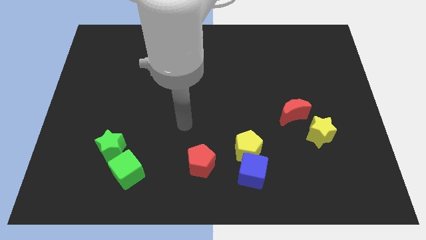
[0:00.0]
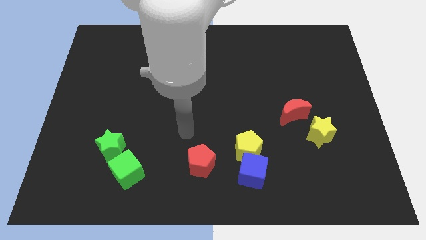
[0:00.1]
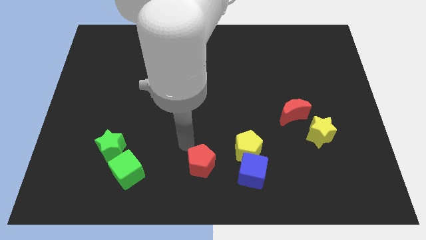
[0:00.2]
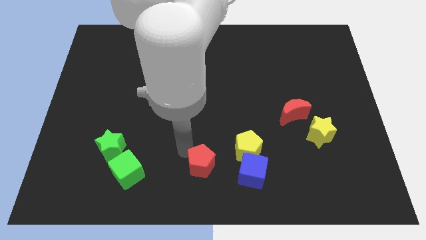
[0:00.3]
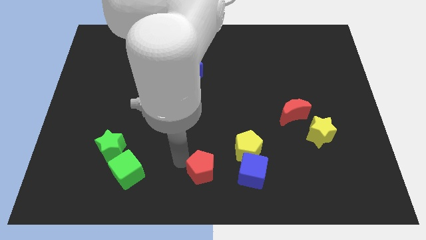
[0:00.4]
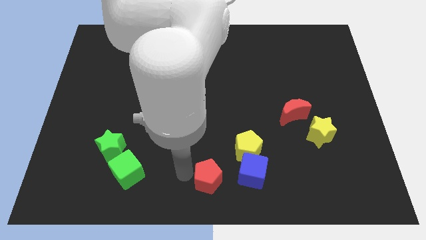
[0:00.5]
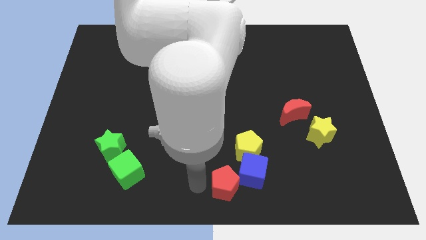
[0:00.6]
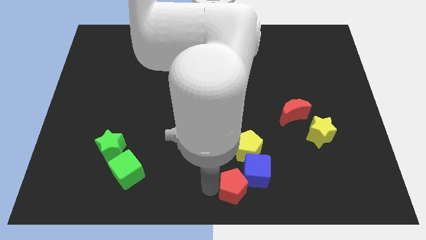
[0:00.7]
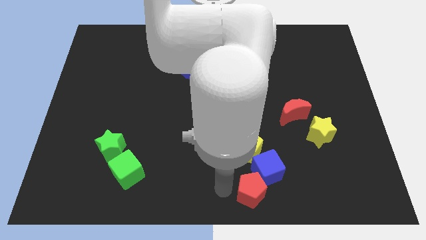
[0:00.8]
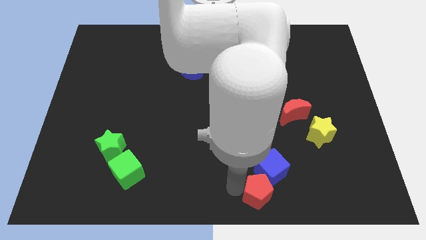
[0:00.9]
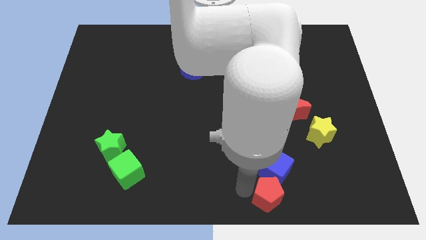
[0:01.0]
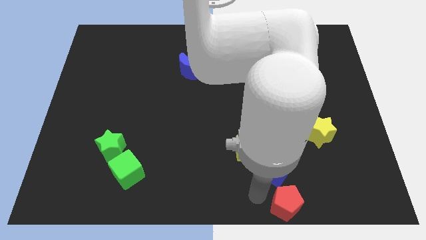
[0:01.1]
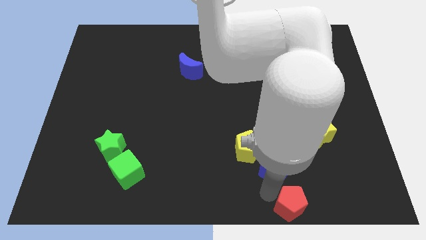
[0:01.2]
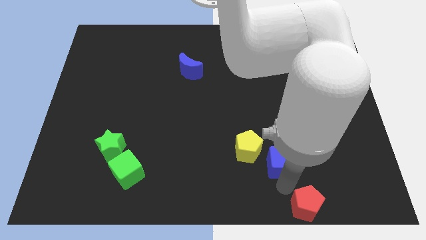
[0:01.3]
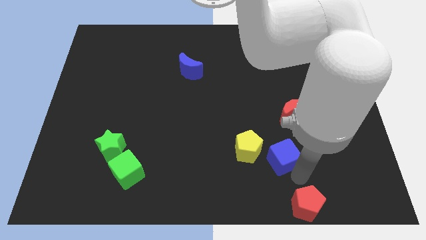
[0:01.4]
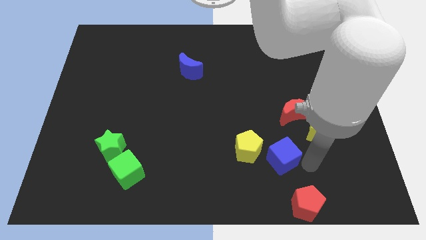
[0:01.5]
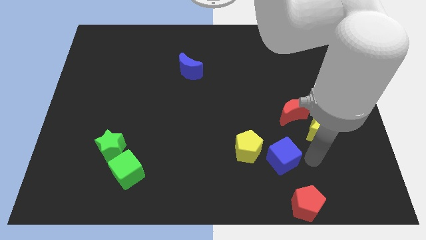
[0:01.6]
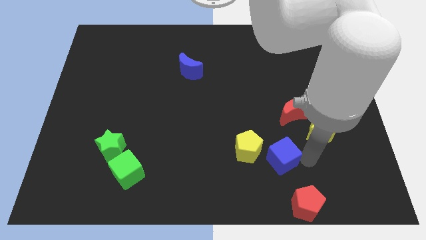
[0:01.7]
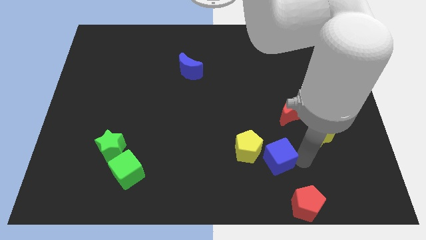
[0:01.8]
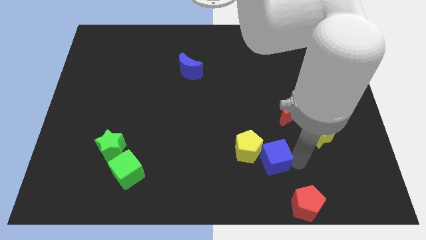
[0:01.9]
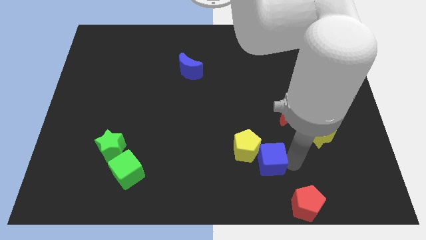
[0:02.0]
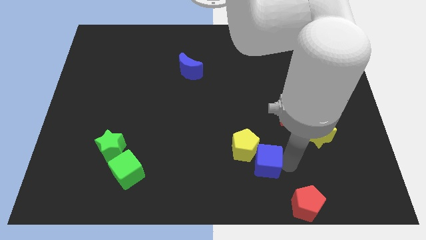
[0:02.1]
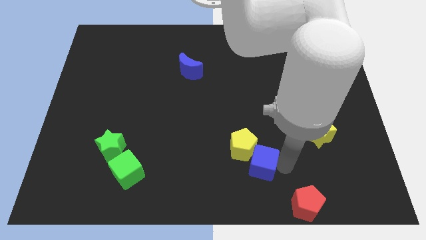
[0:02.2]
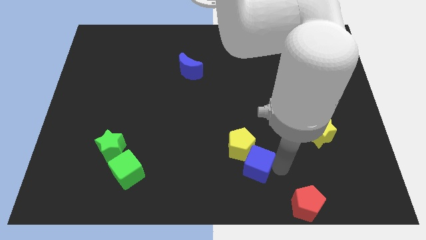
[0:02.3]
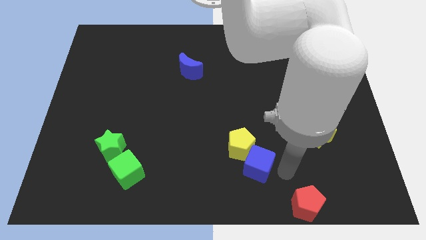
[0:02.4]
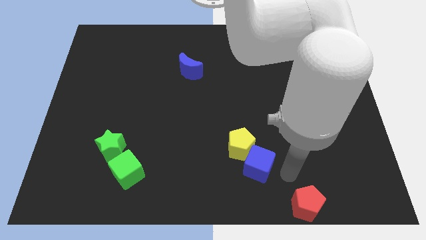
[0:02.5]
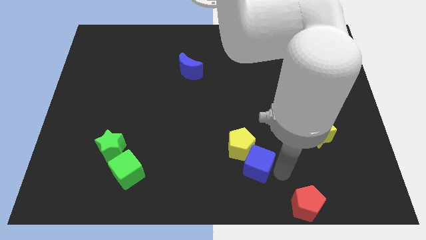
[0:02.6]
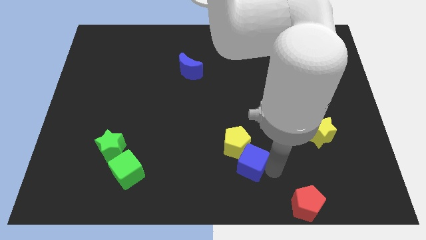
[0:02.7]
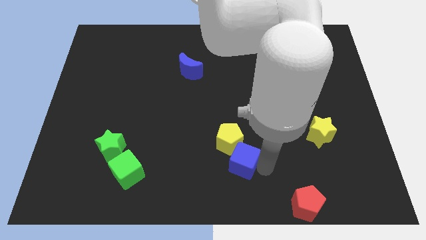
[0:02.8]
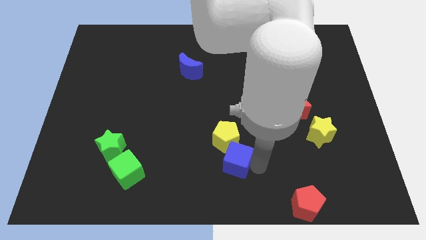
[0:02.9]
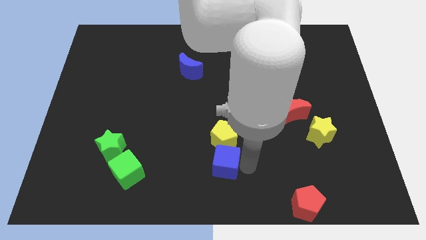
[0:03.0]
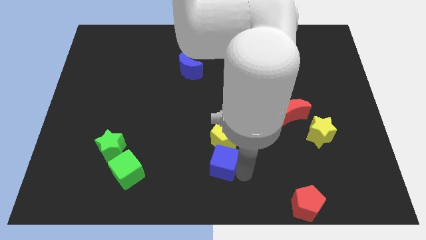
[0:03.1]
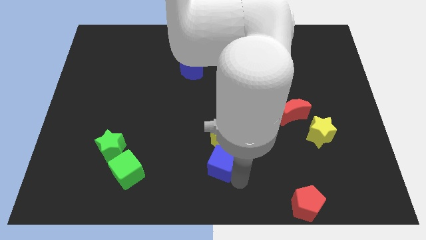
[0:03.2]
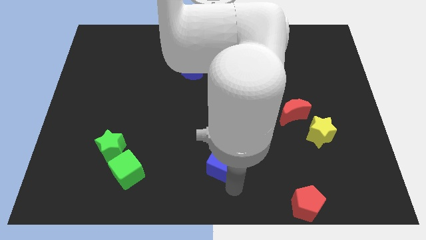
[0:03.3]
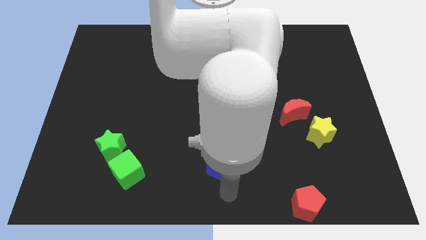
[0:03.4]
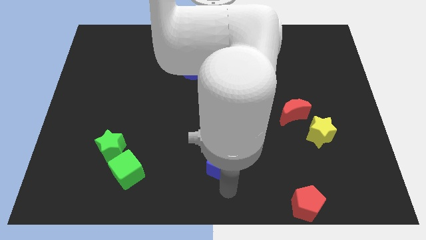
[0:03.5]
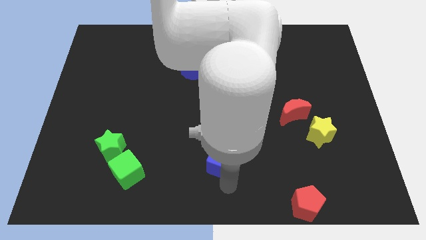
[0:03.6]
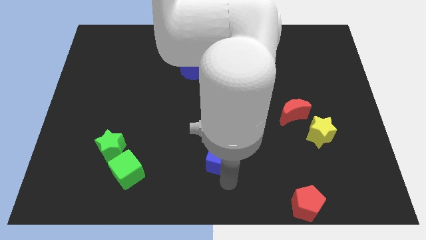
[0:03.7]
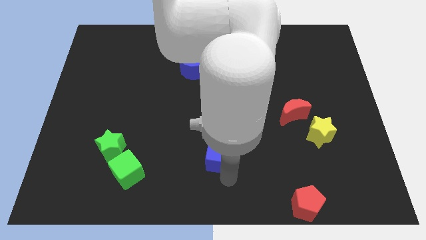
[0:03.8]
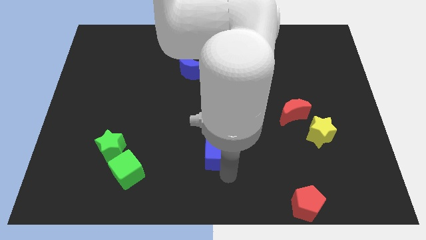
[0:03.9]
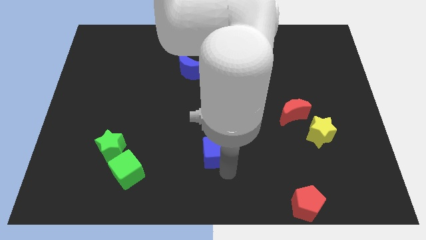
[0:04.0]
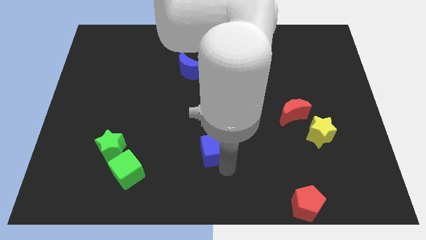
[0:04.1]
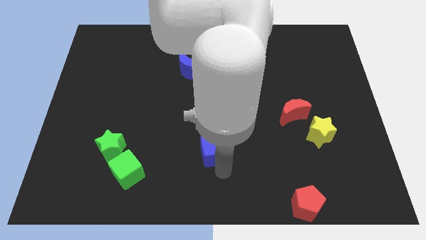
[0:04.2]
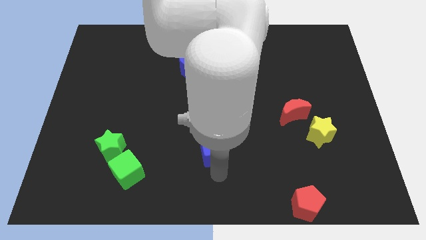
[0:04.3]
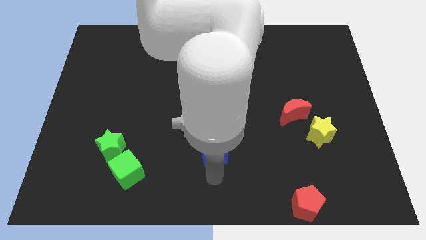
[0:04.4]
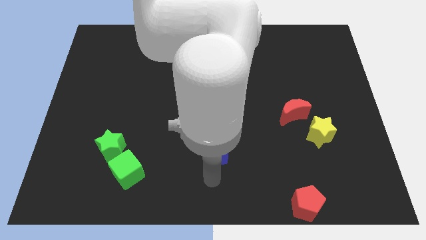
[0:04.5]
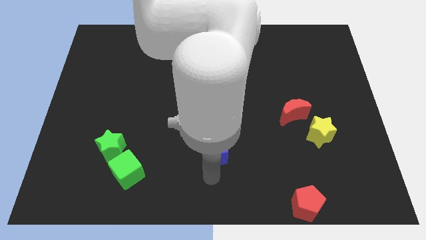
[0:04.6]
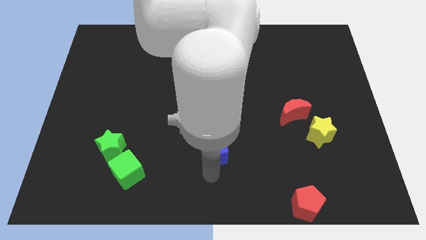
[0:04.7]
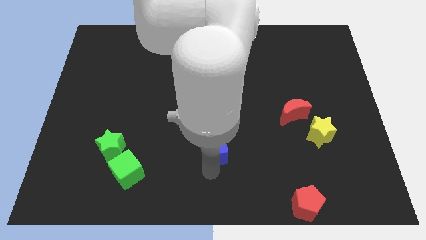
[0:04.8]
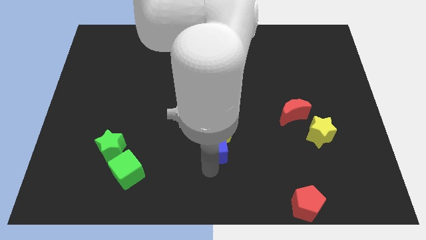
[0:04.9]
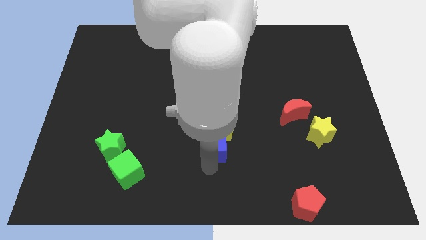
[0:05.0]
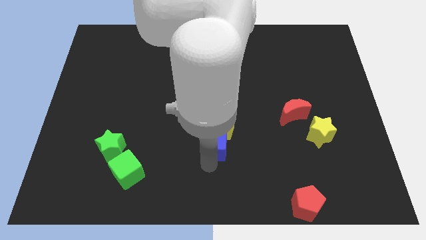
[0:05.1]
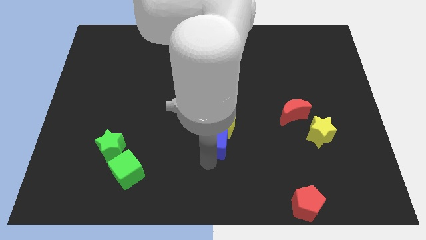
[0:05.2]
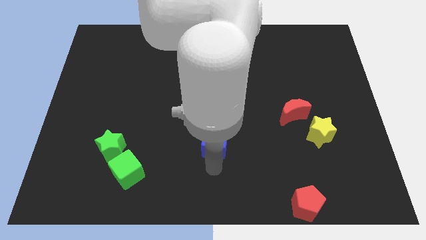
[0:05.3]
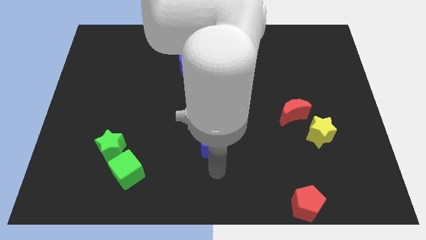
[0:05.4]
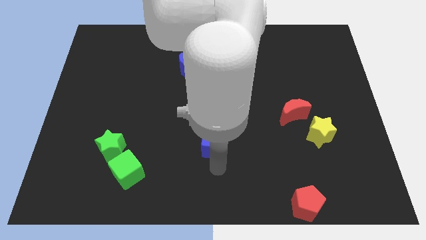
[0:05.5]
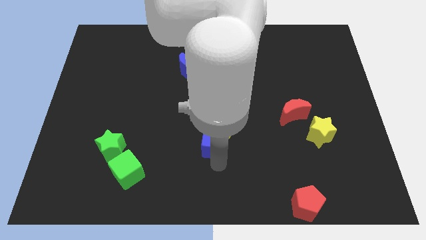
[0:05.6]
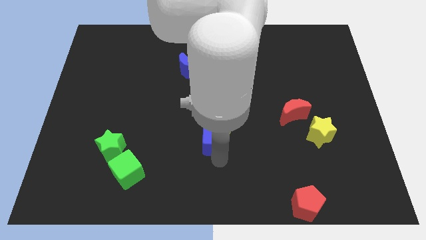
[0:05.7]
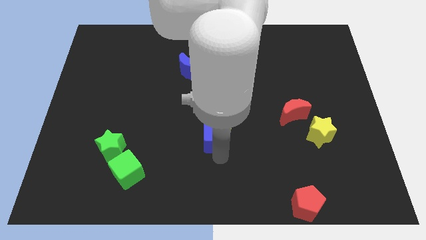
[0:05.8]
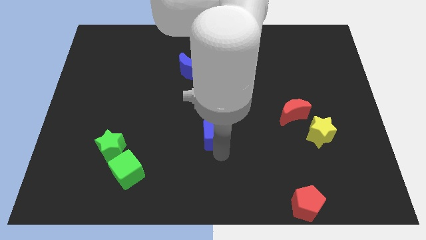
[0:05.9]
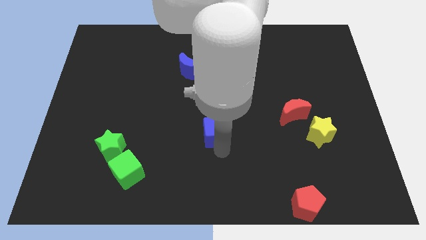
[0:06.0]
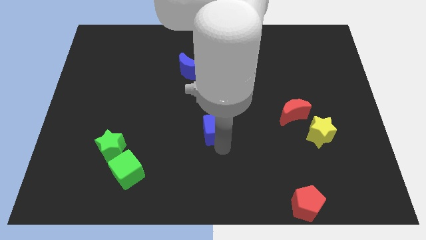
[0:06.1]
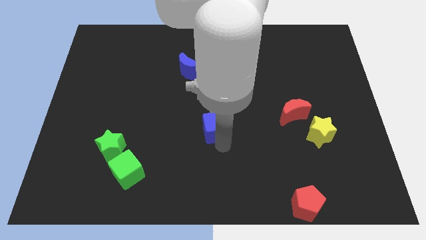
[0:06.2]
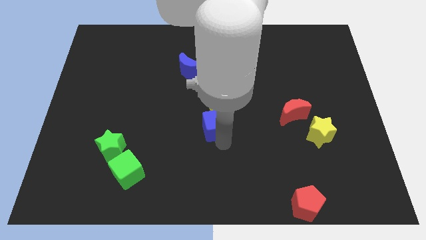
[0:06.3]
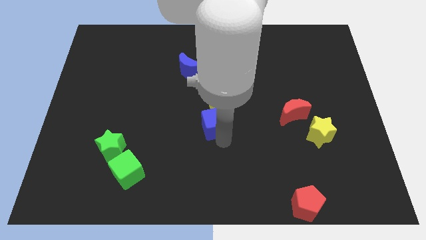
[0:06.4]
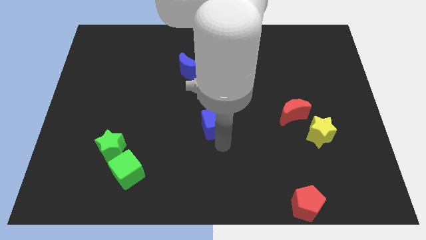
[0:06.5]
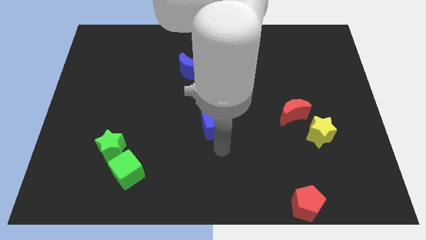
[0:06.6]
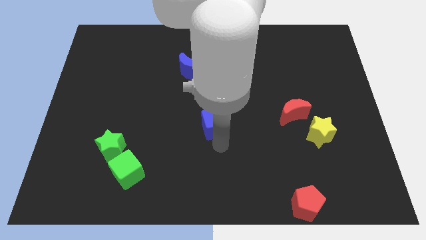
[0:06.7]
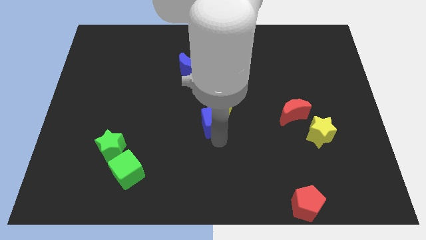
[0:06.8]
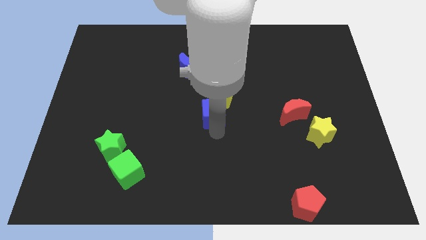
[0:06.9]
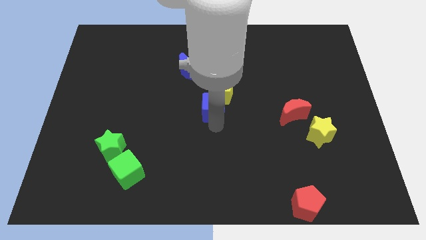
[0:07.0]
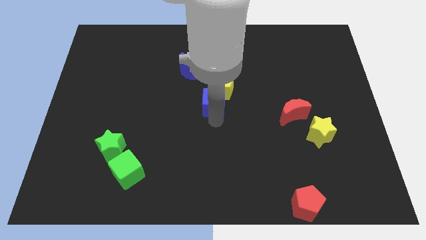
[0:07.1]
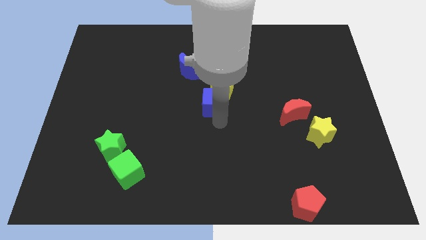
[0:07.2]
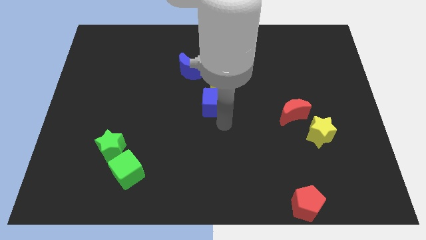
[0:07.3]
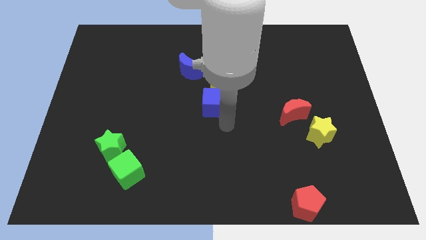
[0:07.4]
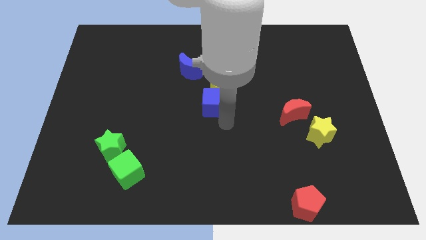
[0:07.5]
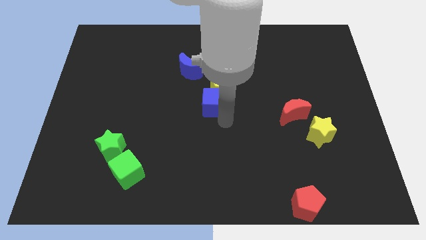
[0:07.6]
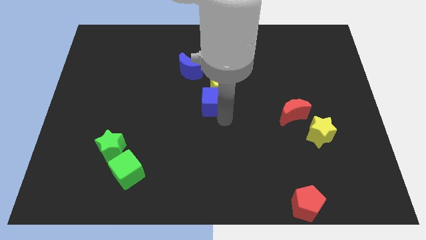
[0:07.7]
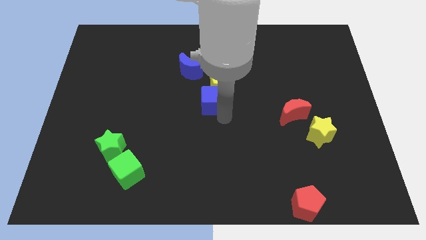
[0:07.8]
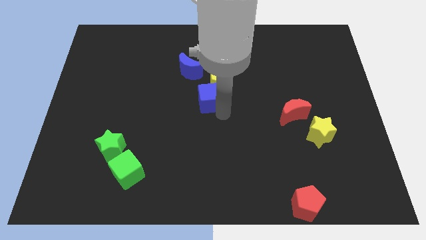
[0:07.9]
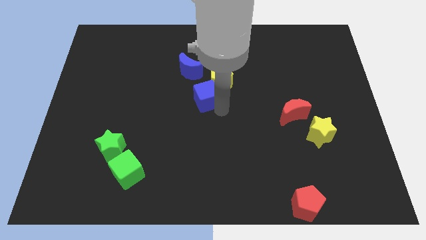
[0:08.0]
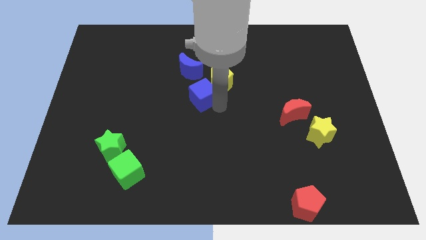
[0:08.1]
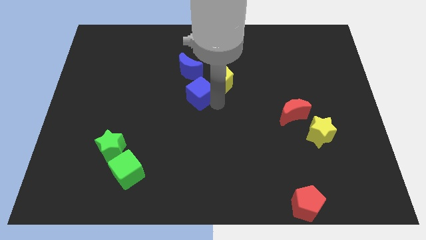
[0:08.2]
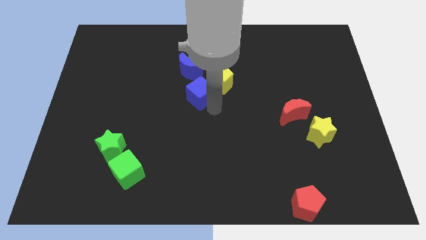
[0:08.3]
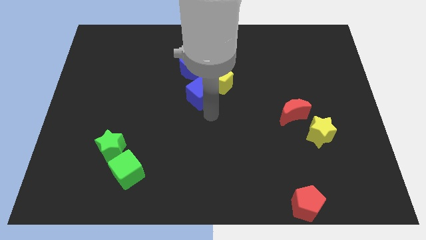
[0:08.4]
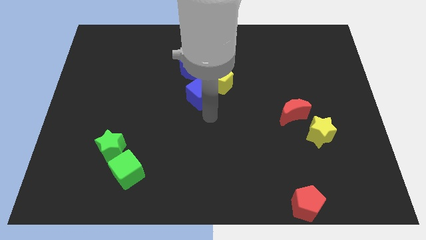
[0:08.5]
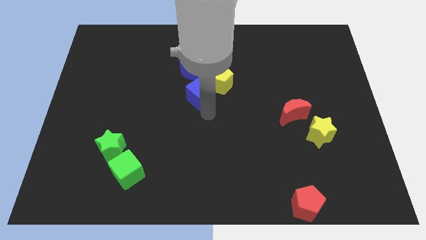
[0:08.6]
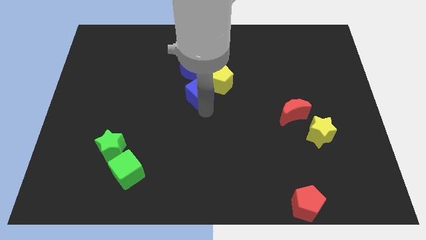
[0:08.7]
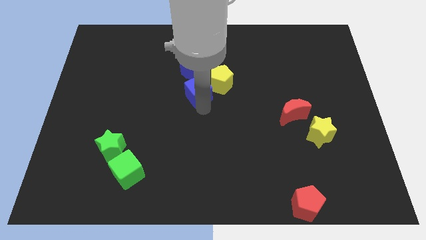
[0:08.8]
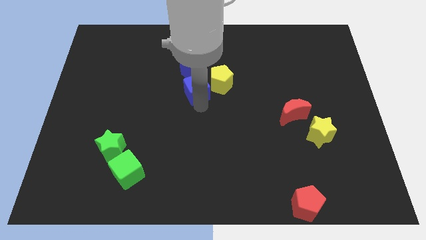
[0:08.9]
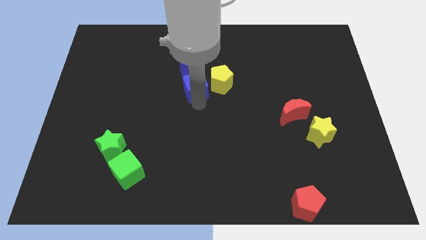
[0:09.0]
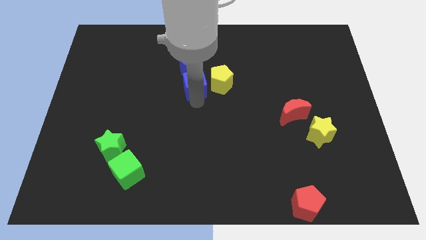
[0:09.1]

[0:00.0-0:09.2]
move the blue cube to the blue moon
